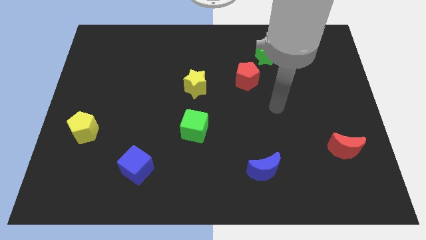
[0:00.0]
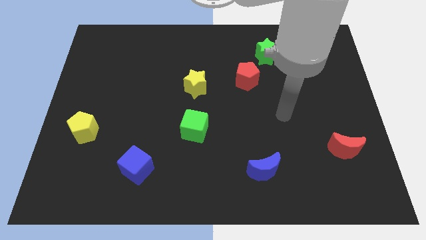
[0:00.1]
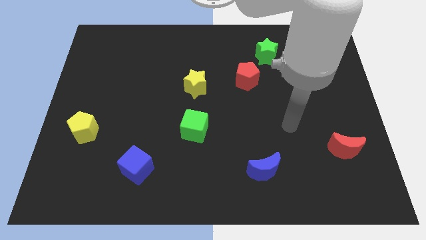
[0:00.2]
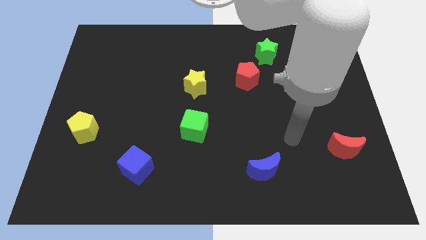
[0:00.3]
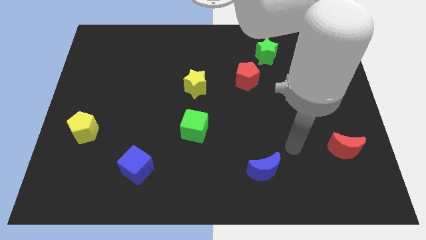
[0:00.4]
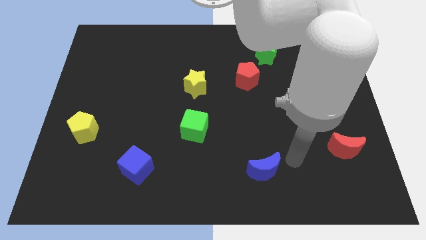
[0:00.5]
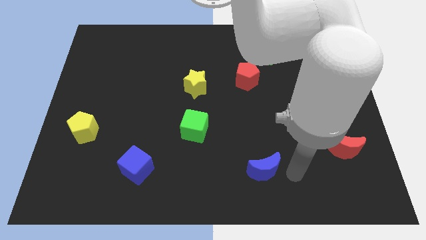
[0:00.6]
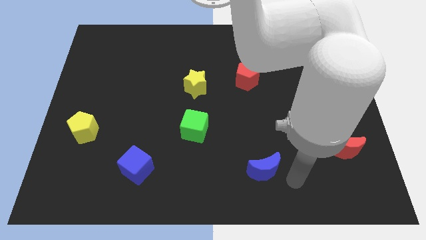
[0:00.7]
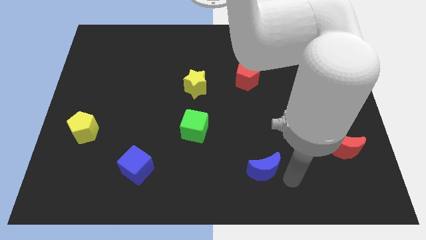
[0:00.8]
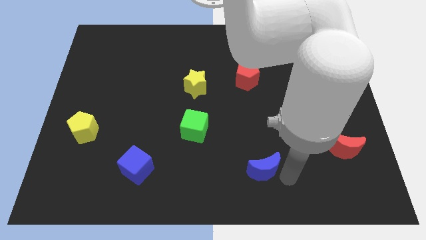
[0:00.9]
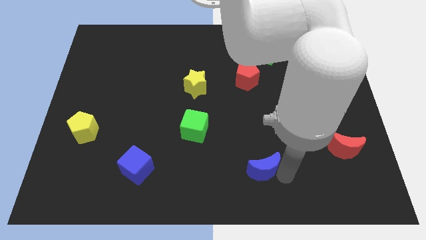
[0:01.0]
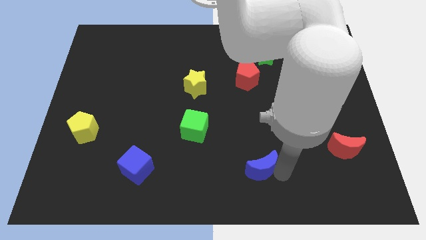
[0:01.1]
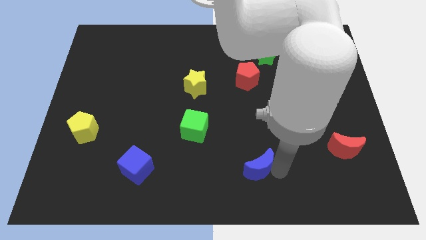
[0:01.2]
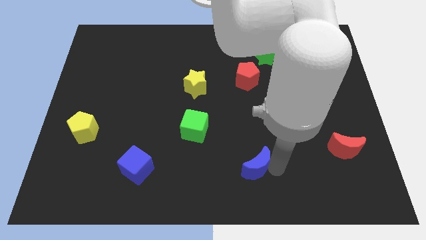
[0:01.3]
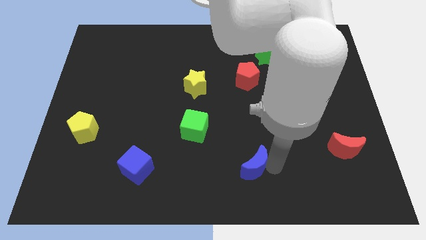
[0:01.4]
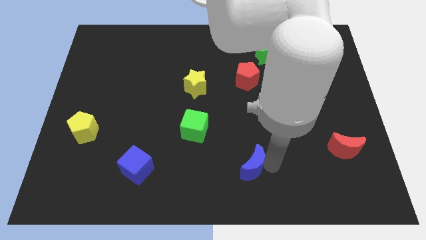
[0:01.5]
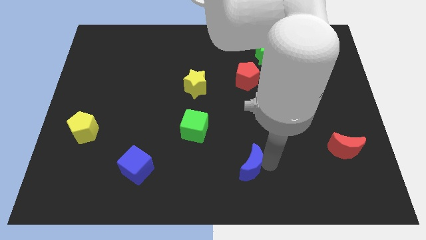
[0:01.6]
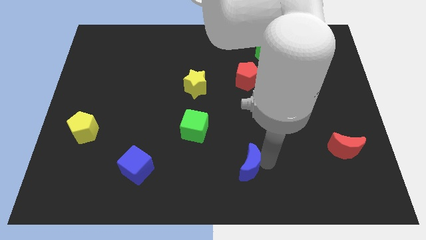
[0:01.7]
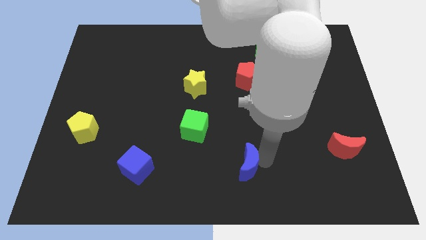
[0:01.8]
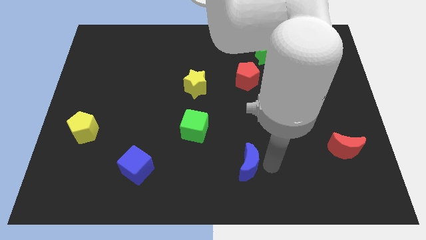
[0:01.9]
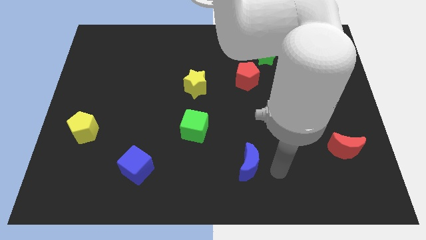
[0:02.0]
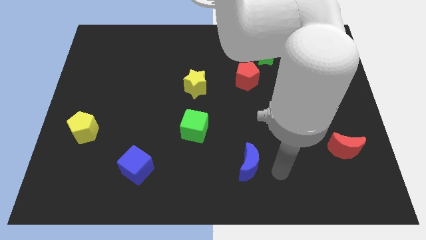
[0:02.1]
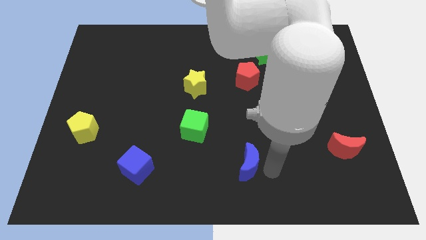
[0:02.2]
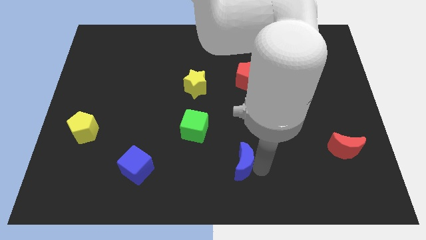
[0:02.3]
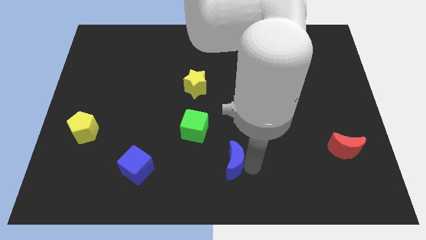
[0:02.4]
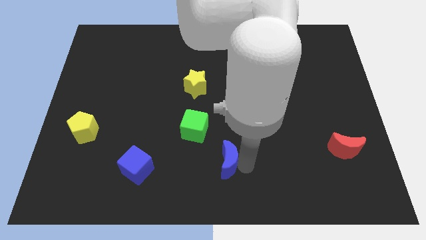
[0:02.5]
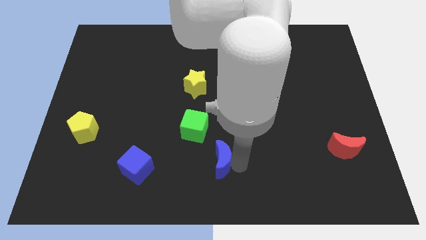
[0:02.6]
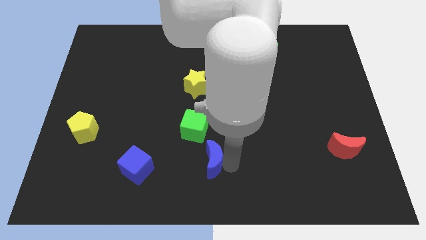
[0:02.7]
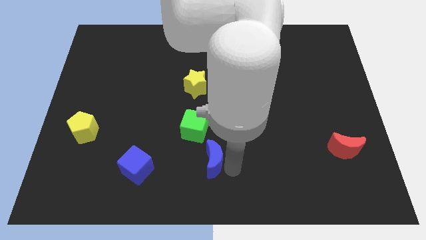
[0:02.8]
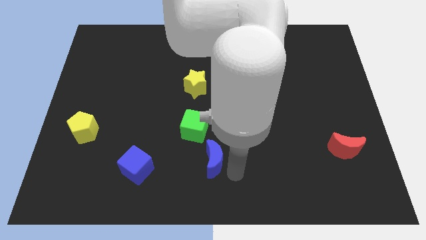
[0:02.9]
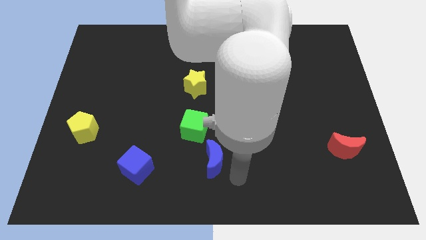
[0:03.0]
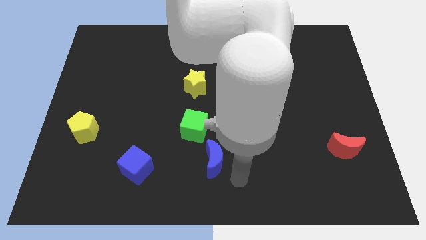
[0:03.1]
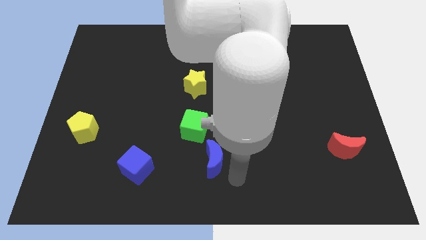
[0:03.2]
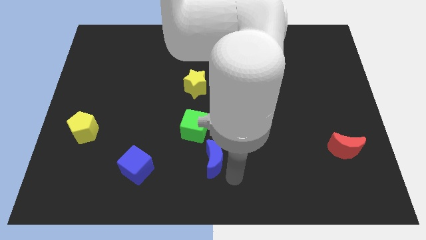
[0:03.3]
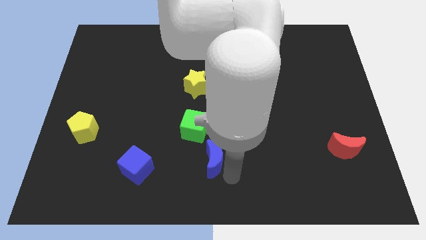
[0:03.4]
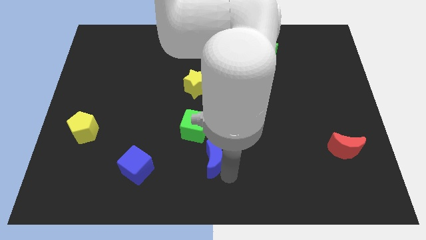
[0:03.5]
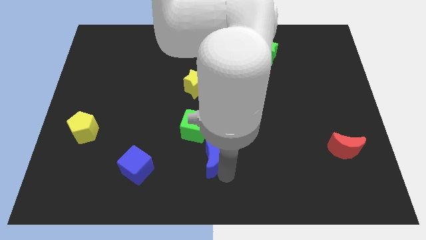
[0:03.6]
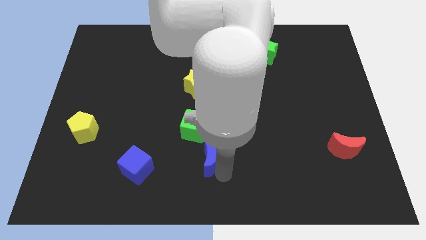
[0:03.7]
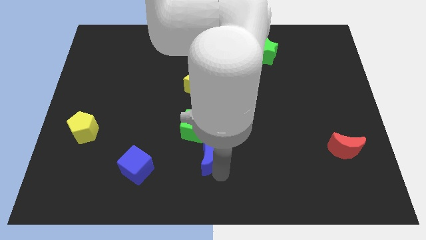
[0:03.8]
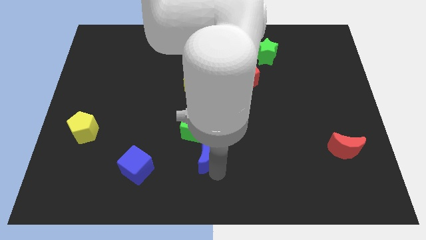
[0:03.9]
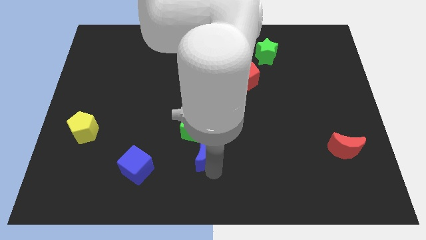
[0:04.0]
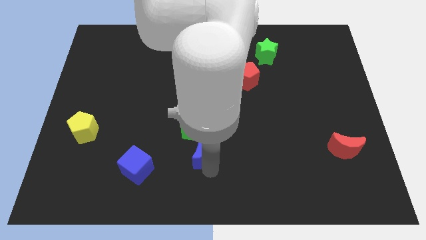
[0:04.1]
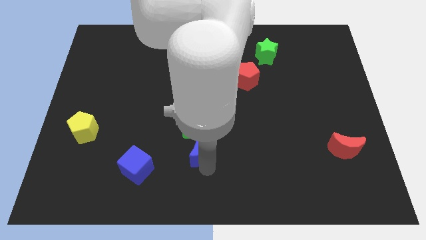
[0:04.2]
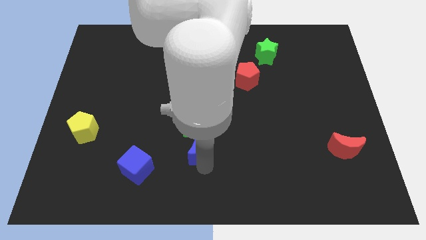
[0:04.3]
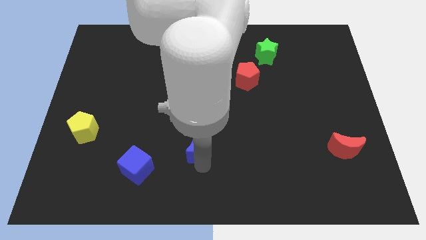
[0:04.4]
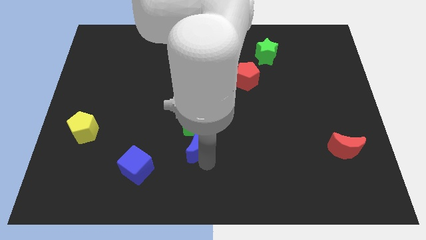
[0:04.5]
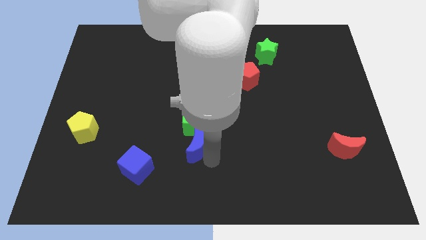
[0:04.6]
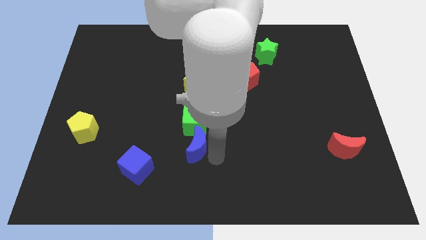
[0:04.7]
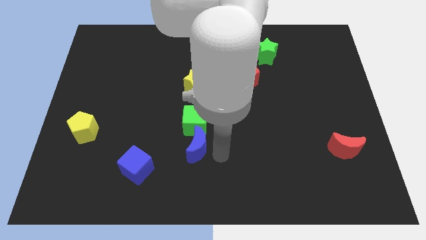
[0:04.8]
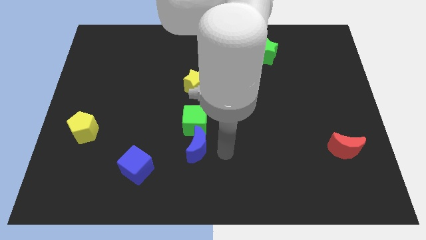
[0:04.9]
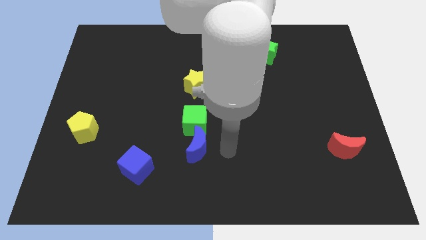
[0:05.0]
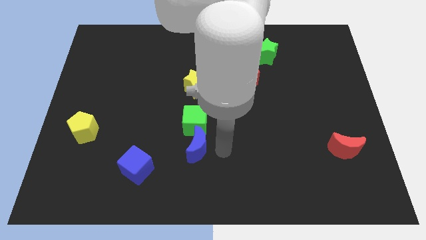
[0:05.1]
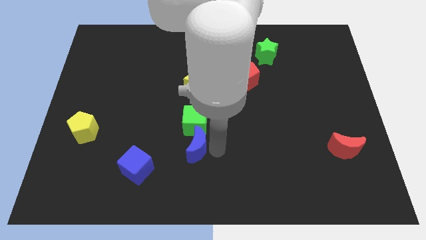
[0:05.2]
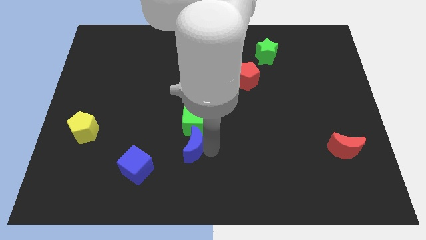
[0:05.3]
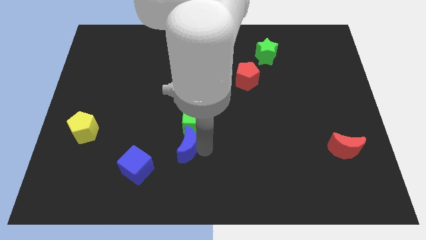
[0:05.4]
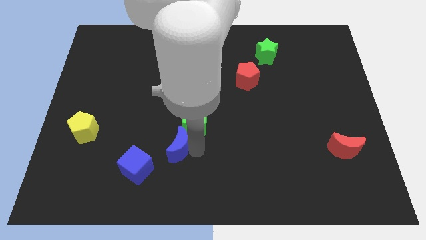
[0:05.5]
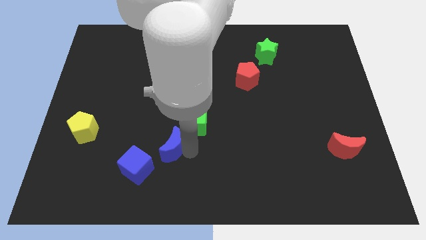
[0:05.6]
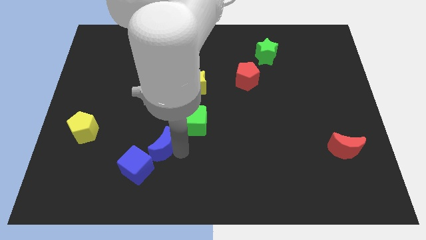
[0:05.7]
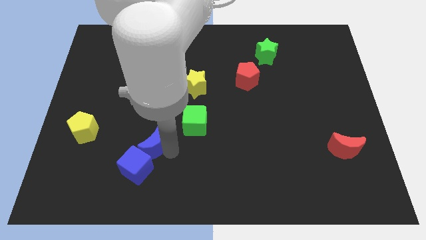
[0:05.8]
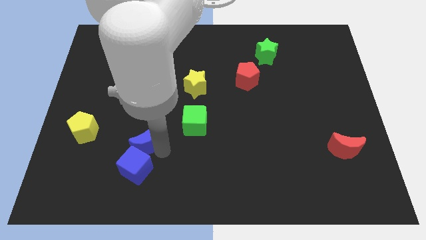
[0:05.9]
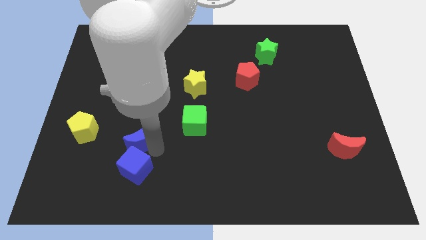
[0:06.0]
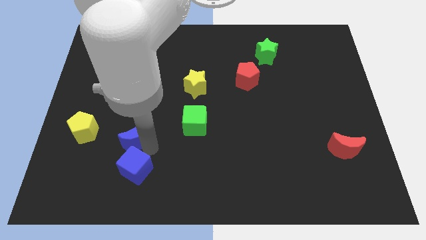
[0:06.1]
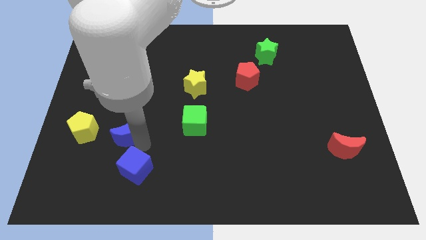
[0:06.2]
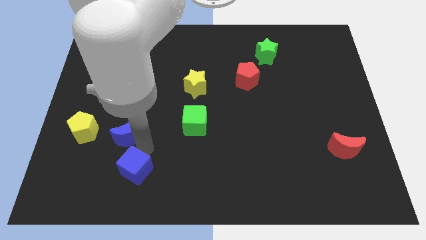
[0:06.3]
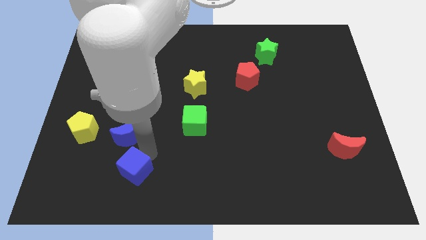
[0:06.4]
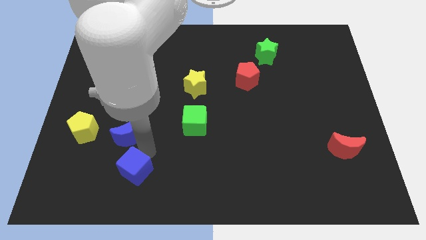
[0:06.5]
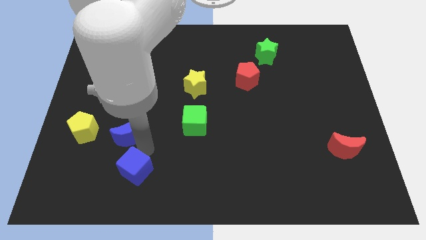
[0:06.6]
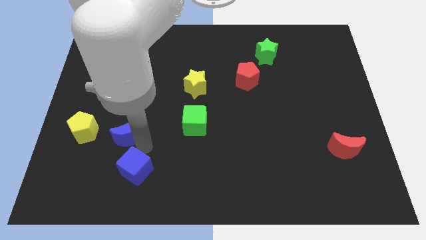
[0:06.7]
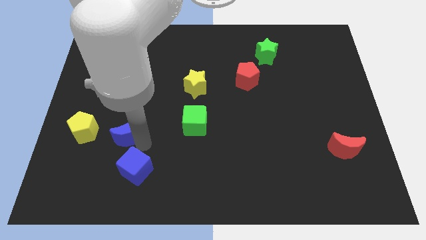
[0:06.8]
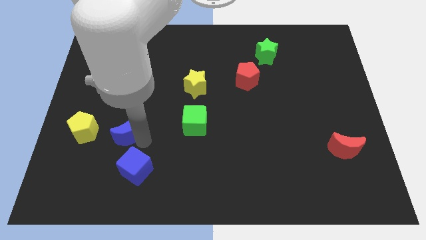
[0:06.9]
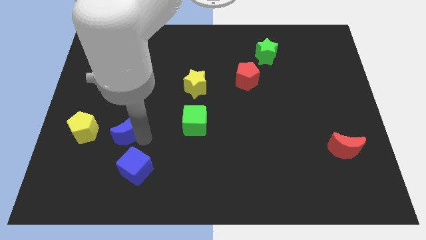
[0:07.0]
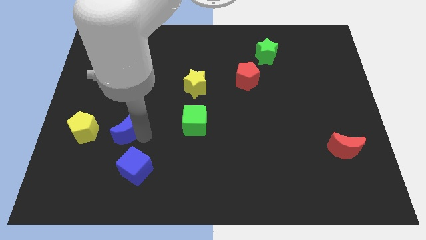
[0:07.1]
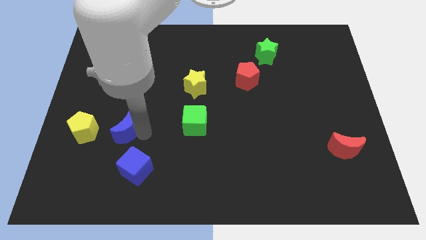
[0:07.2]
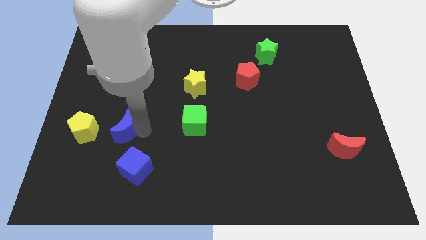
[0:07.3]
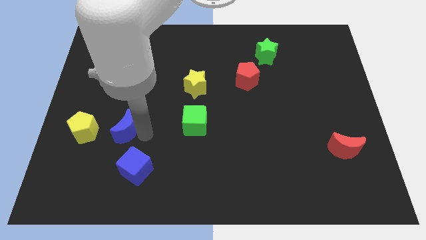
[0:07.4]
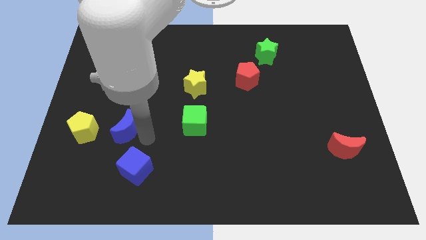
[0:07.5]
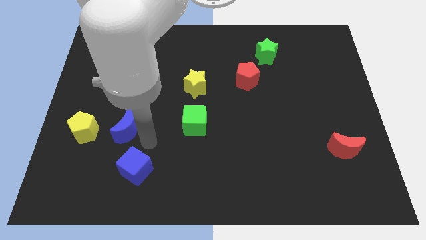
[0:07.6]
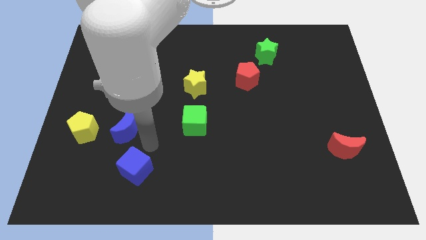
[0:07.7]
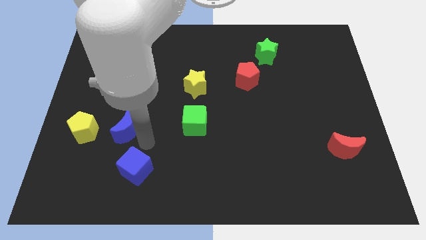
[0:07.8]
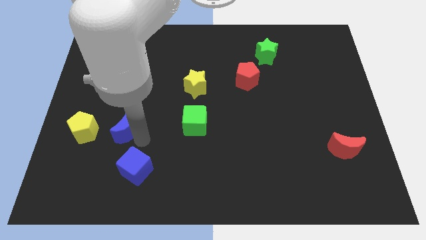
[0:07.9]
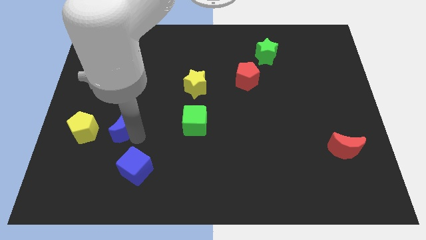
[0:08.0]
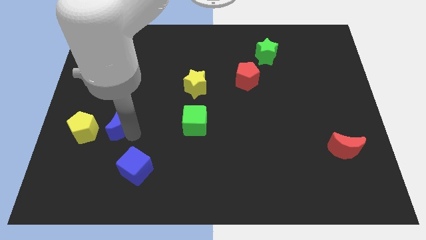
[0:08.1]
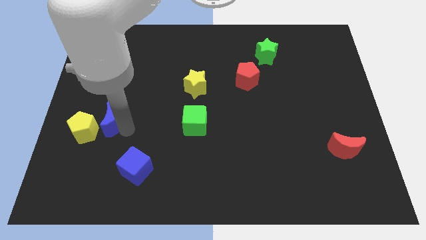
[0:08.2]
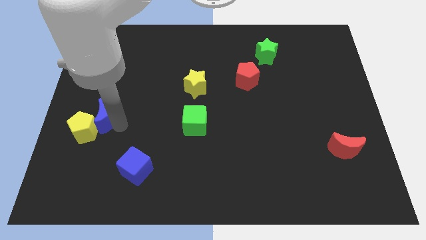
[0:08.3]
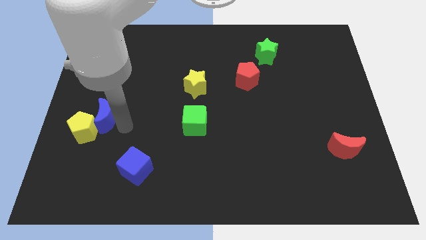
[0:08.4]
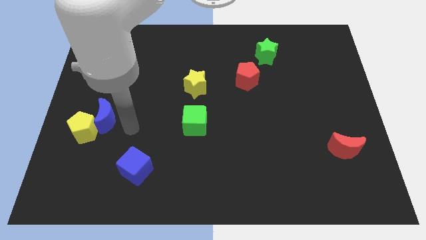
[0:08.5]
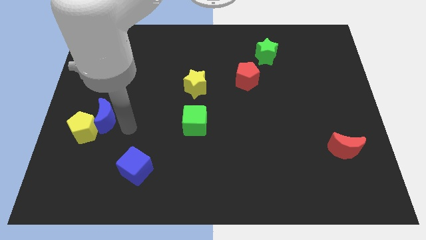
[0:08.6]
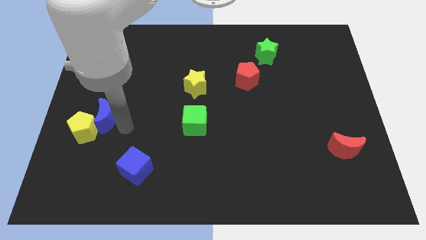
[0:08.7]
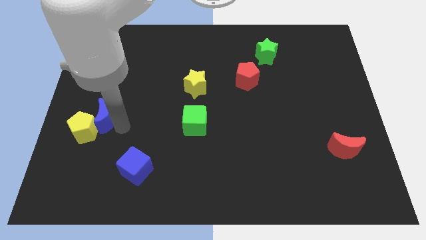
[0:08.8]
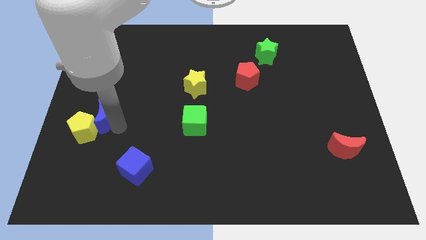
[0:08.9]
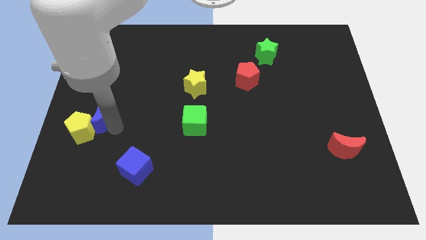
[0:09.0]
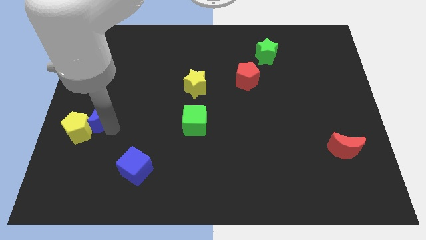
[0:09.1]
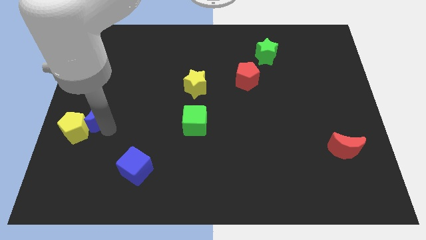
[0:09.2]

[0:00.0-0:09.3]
put the blue moon to the center left
